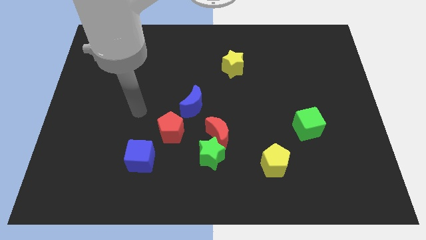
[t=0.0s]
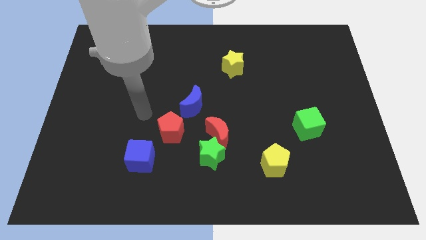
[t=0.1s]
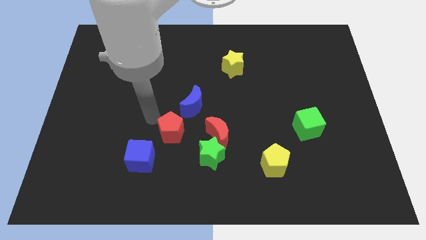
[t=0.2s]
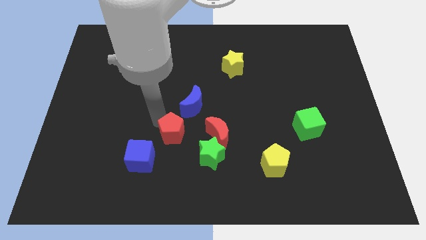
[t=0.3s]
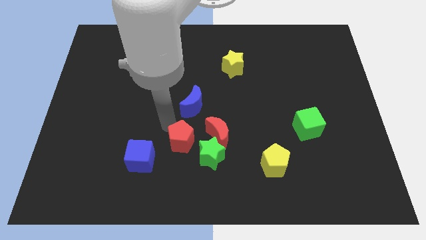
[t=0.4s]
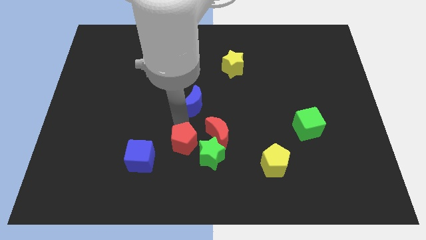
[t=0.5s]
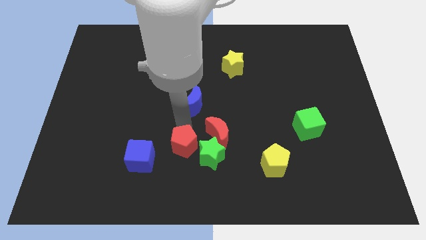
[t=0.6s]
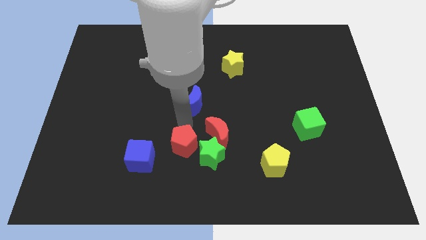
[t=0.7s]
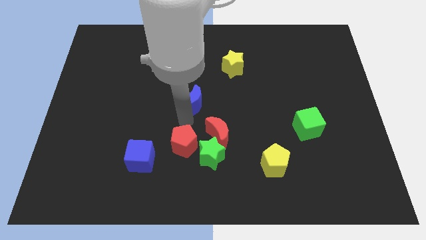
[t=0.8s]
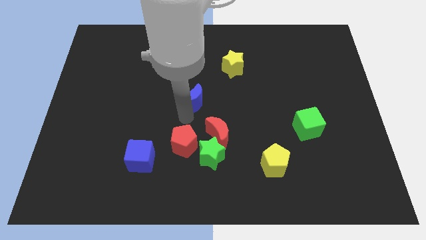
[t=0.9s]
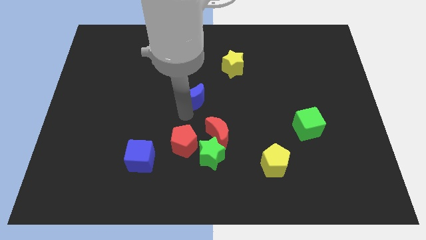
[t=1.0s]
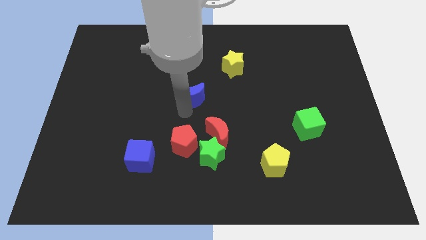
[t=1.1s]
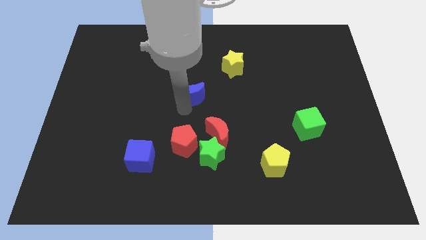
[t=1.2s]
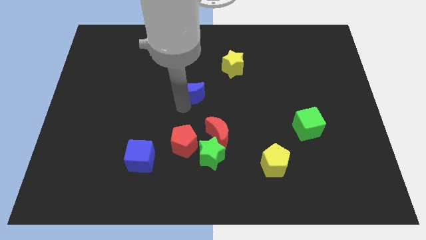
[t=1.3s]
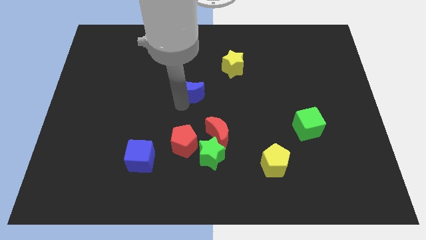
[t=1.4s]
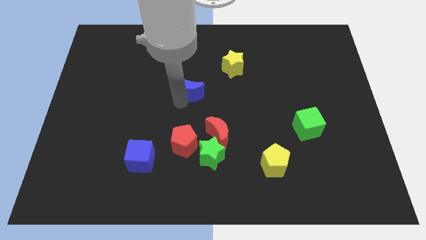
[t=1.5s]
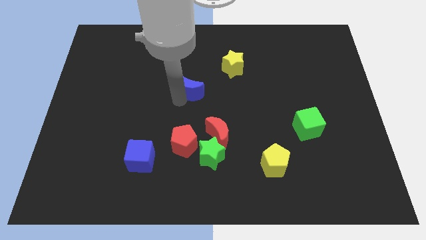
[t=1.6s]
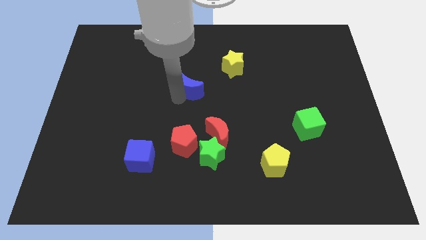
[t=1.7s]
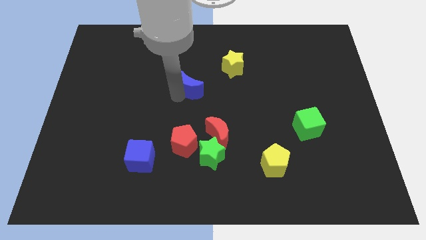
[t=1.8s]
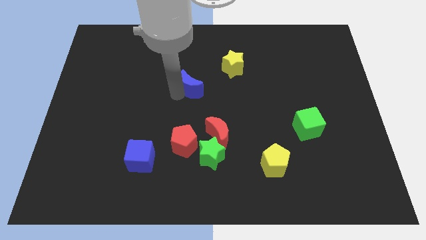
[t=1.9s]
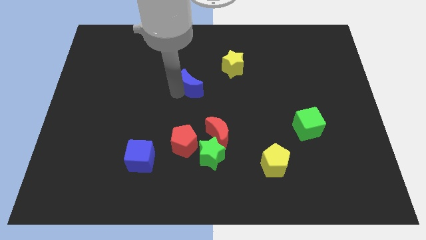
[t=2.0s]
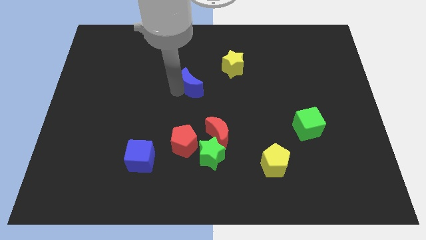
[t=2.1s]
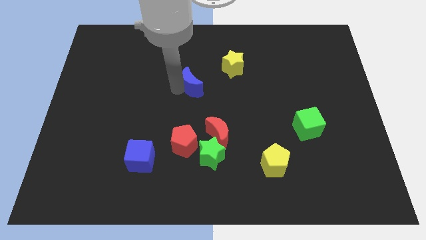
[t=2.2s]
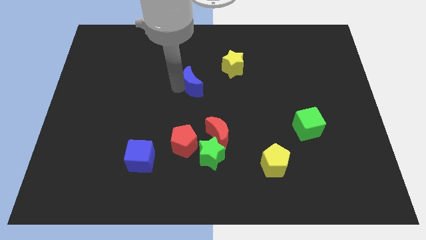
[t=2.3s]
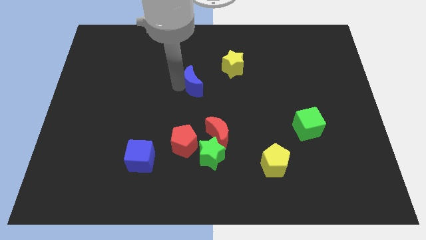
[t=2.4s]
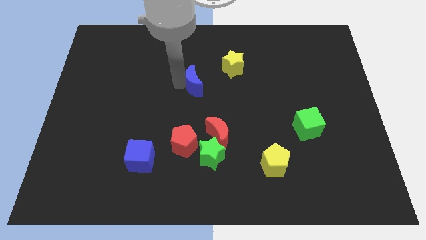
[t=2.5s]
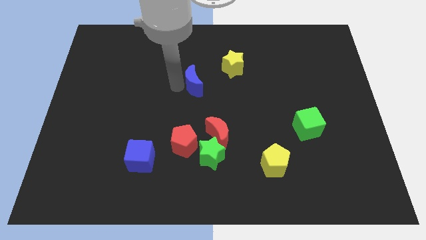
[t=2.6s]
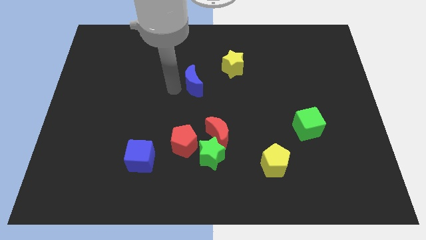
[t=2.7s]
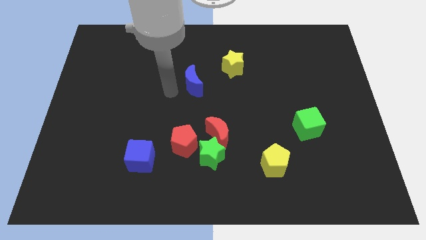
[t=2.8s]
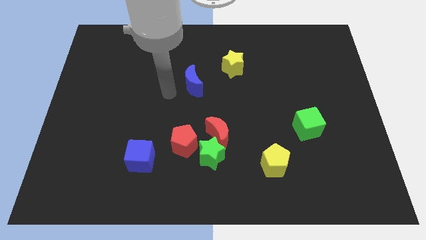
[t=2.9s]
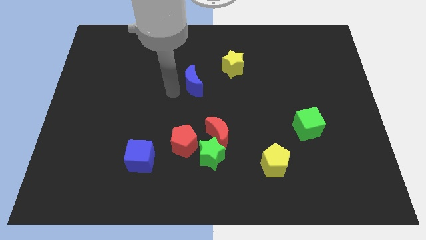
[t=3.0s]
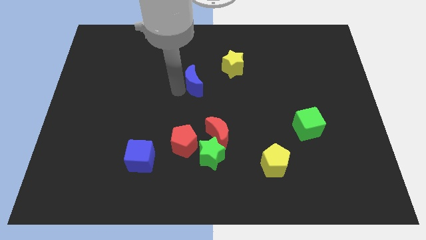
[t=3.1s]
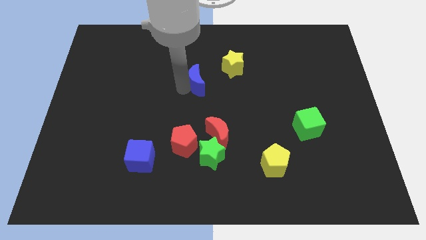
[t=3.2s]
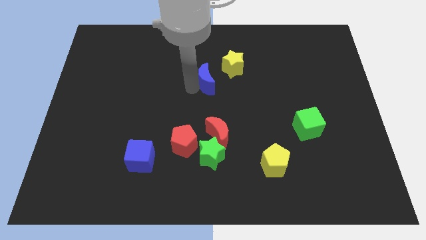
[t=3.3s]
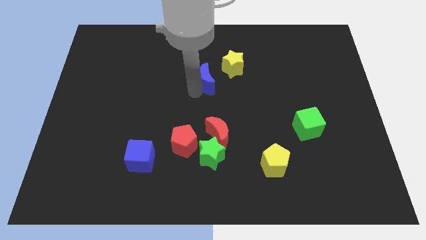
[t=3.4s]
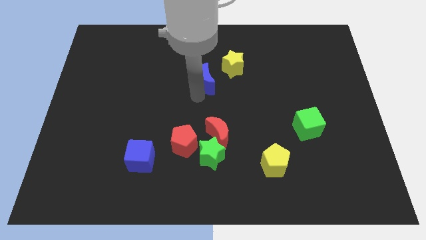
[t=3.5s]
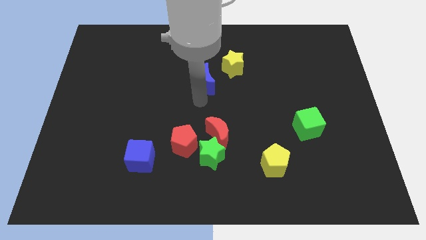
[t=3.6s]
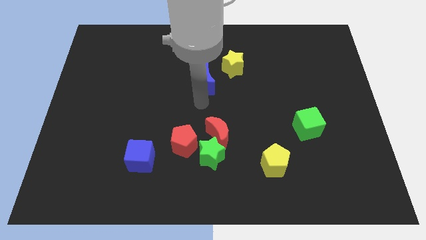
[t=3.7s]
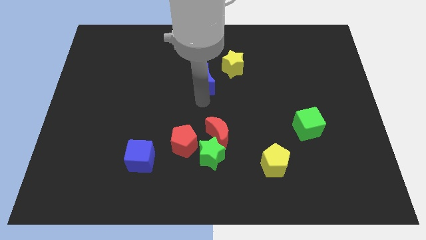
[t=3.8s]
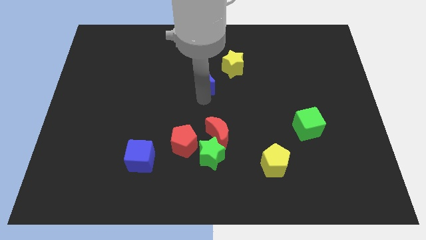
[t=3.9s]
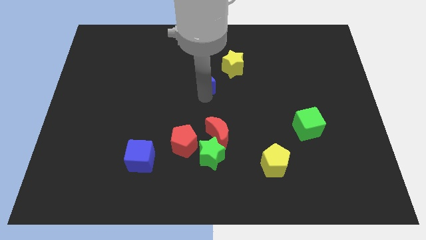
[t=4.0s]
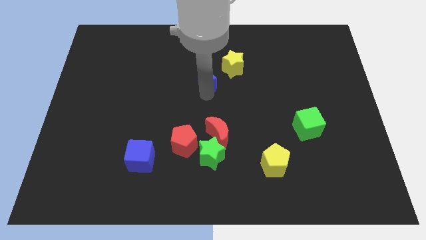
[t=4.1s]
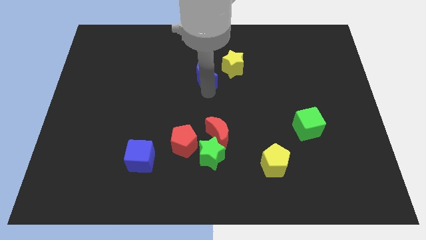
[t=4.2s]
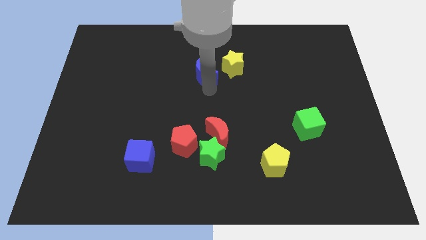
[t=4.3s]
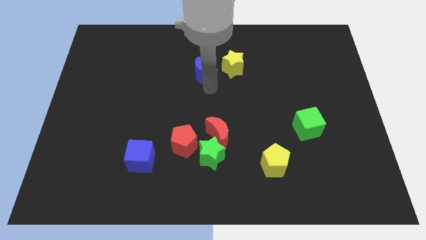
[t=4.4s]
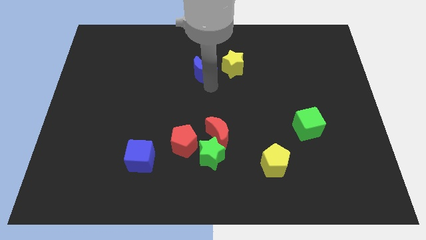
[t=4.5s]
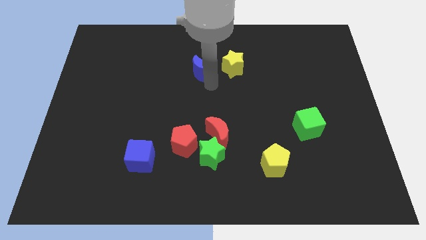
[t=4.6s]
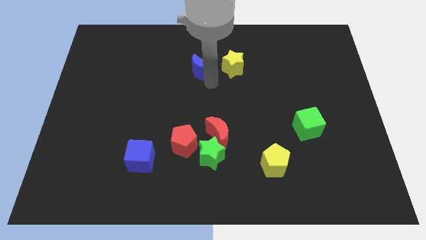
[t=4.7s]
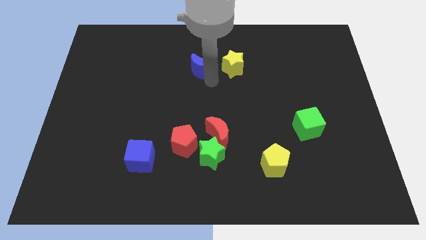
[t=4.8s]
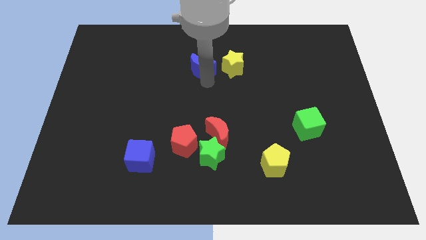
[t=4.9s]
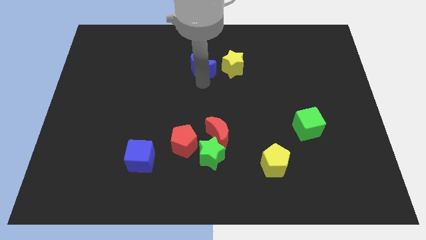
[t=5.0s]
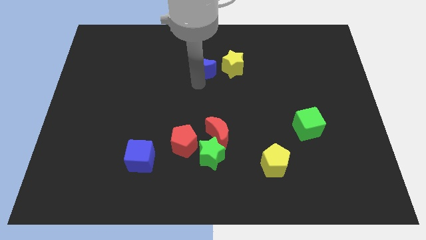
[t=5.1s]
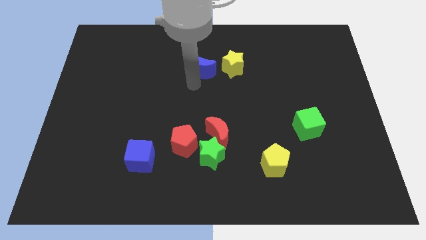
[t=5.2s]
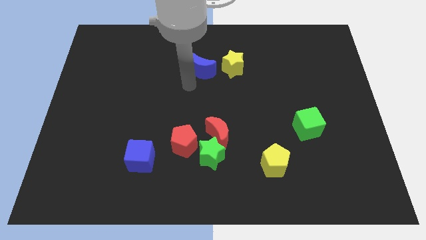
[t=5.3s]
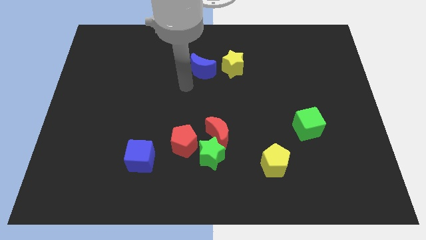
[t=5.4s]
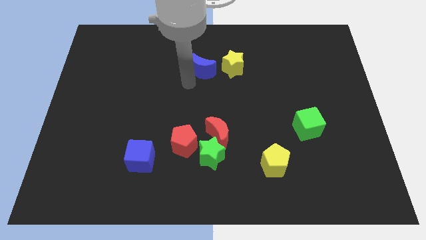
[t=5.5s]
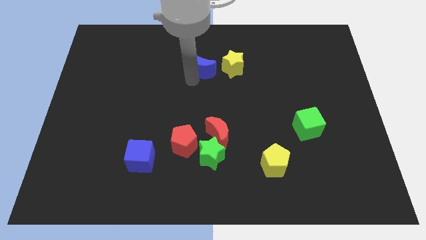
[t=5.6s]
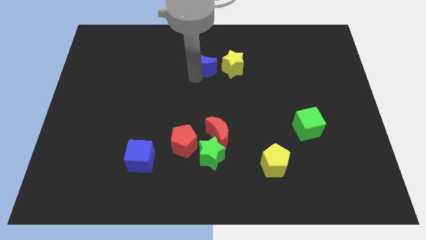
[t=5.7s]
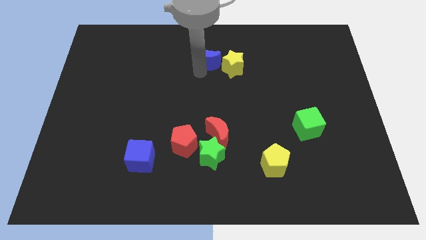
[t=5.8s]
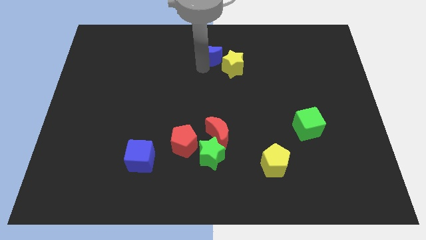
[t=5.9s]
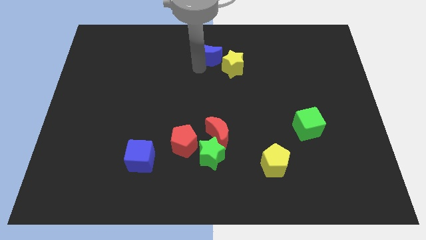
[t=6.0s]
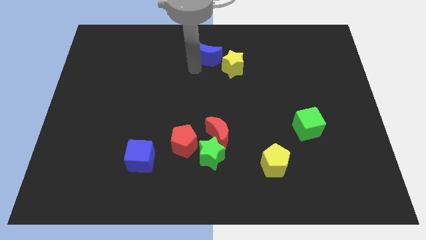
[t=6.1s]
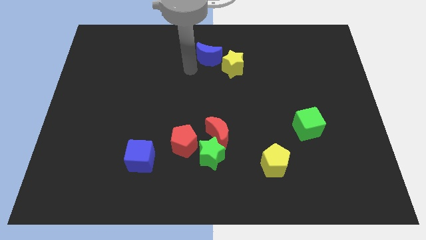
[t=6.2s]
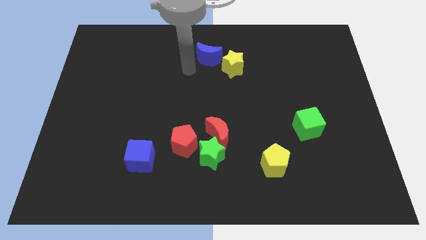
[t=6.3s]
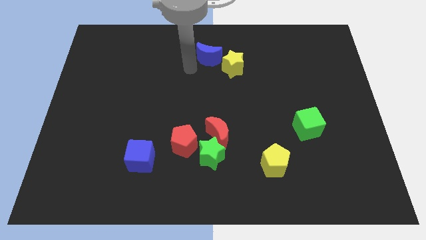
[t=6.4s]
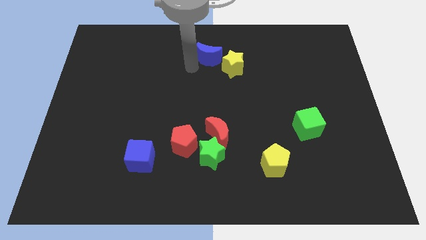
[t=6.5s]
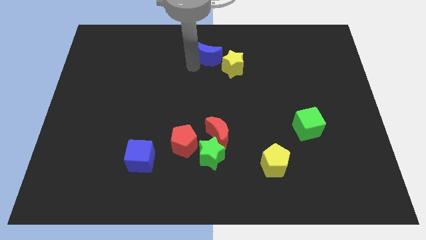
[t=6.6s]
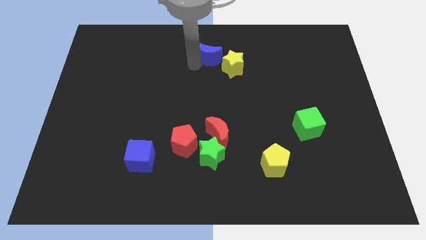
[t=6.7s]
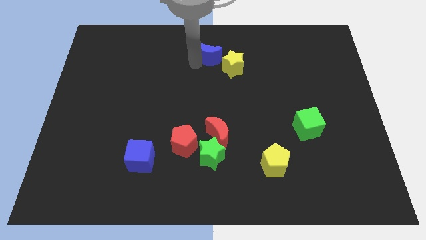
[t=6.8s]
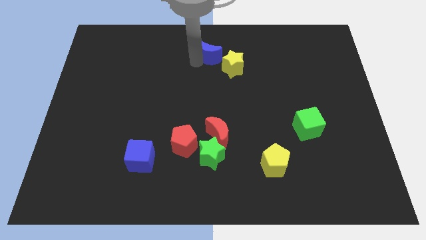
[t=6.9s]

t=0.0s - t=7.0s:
move the blue moon to the top side
